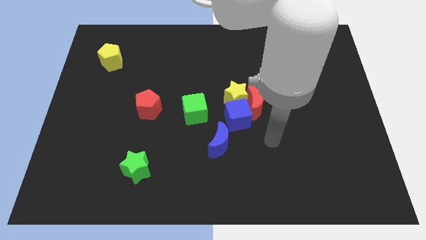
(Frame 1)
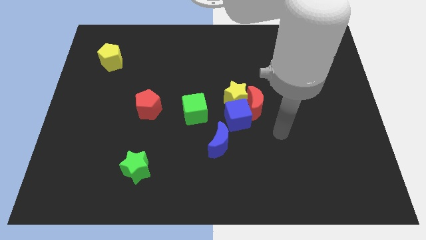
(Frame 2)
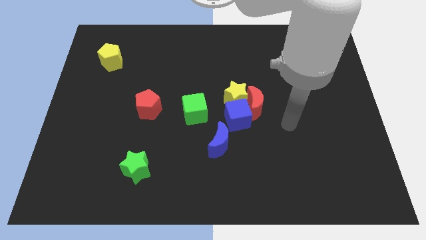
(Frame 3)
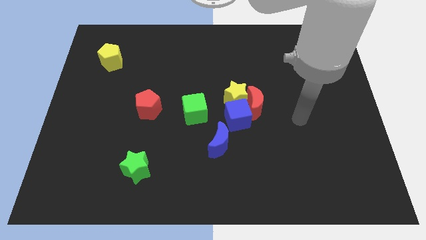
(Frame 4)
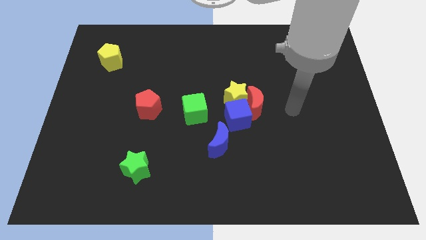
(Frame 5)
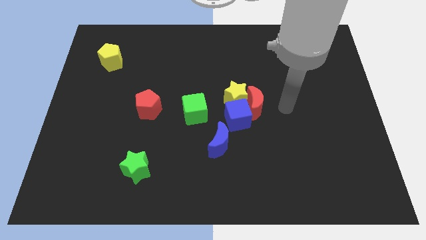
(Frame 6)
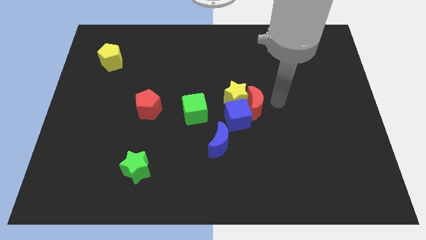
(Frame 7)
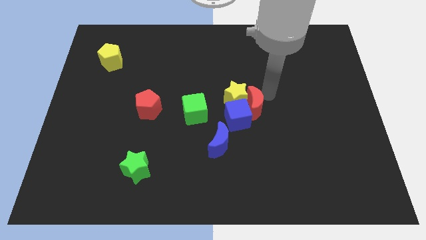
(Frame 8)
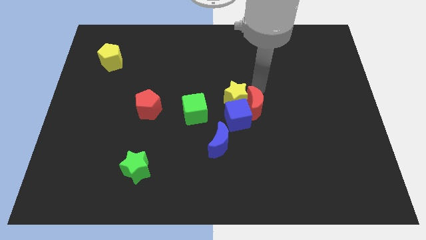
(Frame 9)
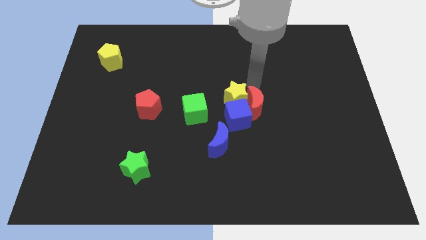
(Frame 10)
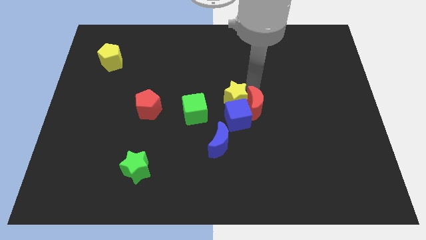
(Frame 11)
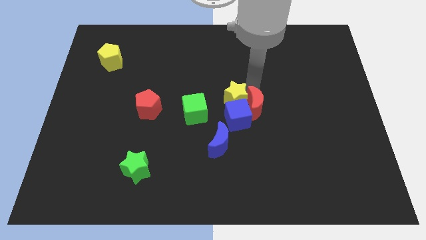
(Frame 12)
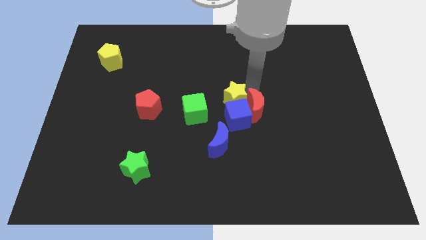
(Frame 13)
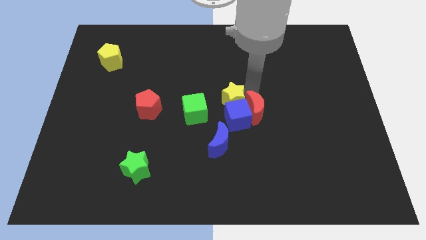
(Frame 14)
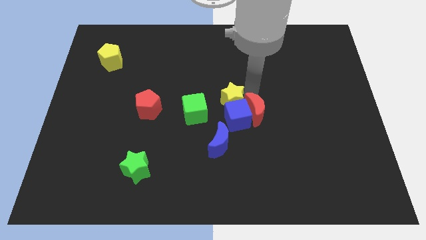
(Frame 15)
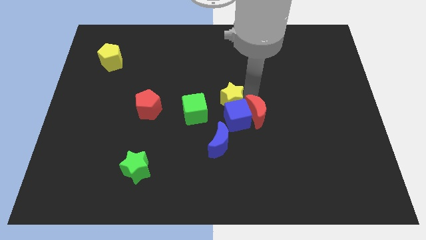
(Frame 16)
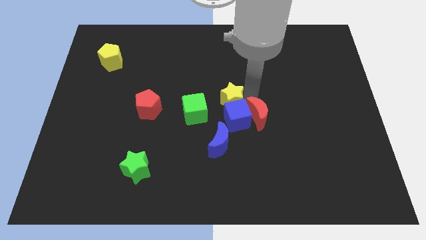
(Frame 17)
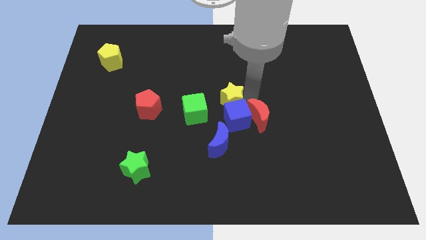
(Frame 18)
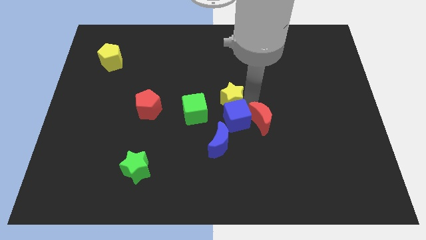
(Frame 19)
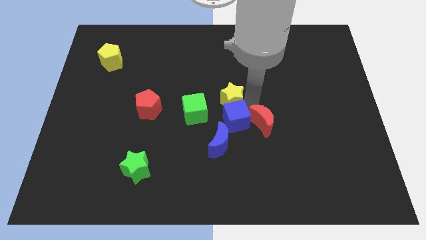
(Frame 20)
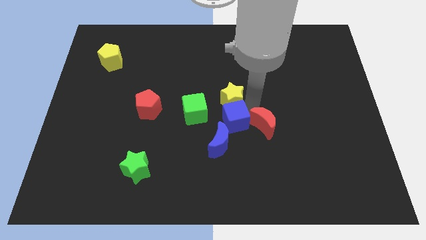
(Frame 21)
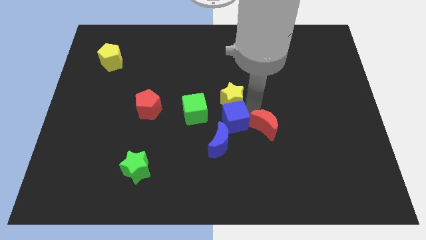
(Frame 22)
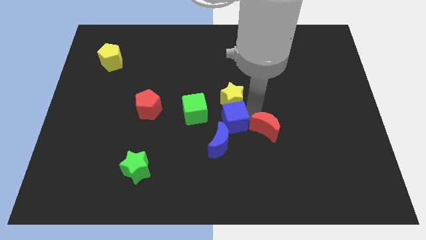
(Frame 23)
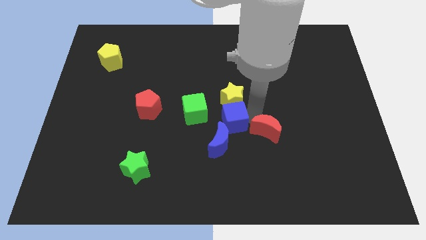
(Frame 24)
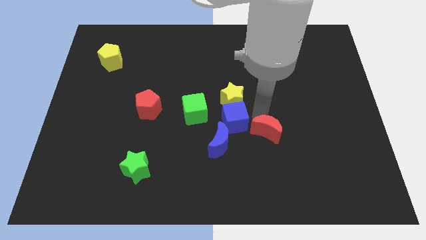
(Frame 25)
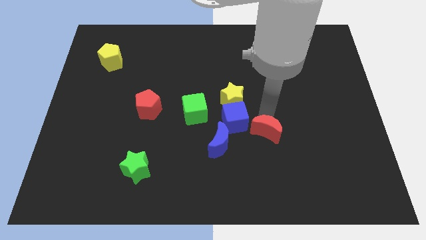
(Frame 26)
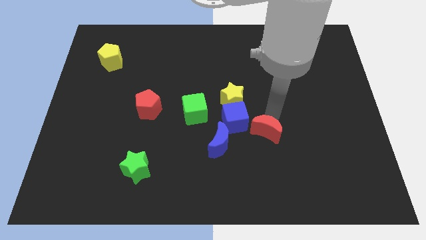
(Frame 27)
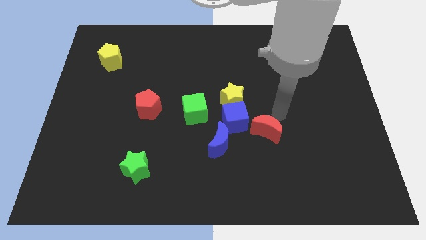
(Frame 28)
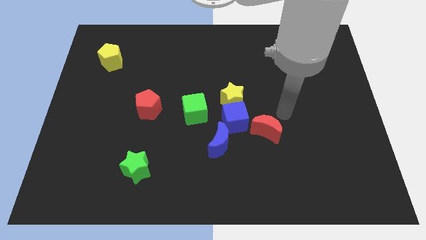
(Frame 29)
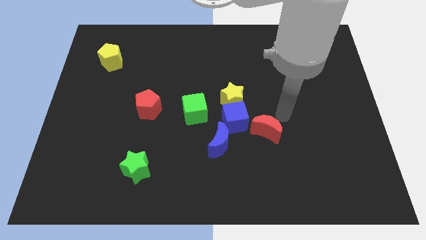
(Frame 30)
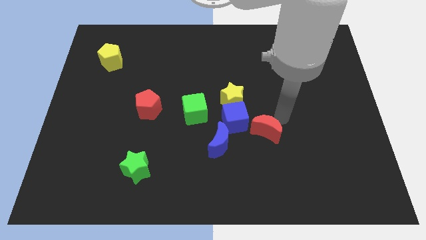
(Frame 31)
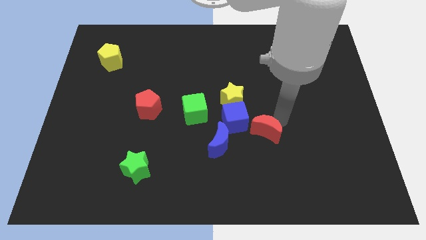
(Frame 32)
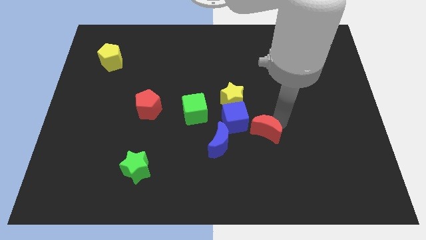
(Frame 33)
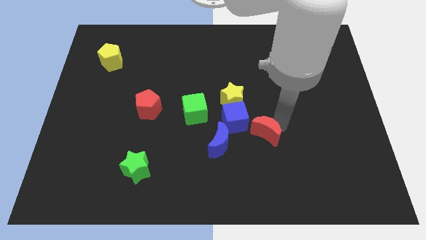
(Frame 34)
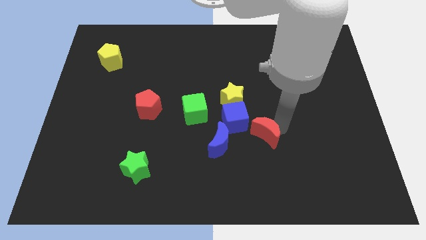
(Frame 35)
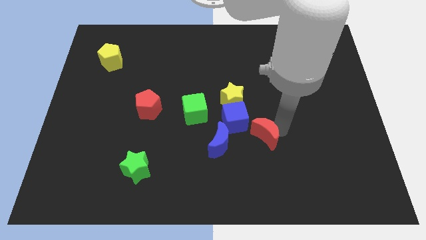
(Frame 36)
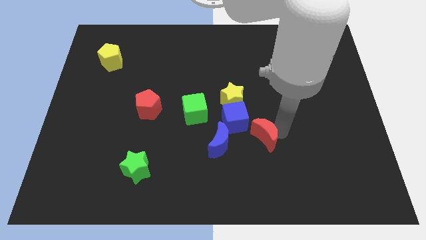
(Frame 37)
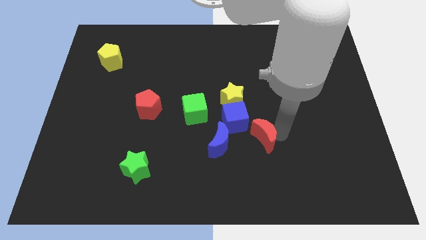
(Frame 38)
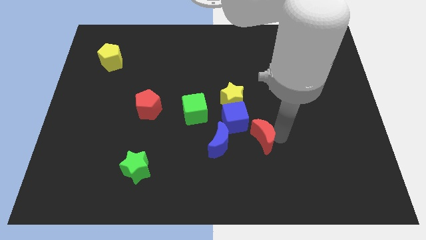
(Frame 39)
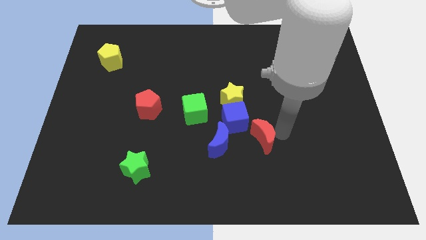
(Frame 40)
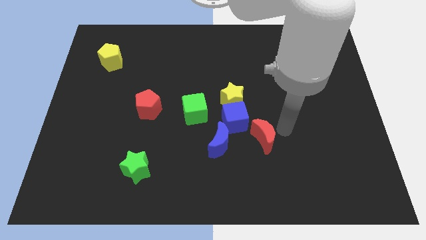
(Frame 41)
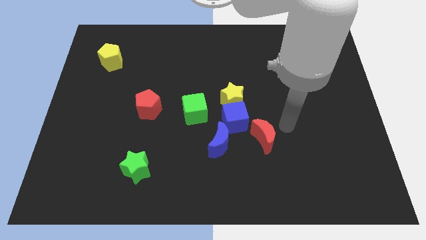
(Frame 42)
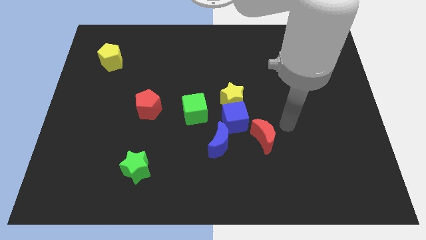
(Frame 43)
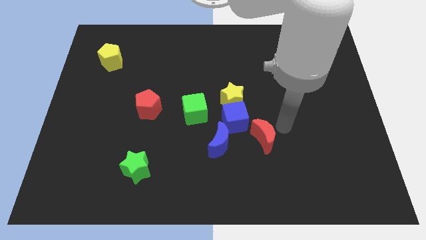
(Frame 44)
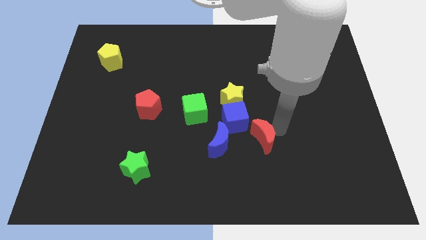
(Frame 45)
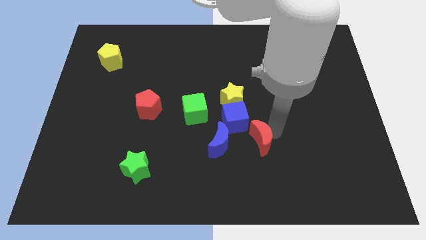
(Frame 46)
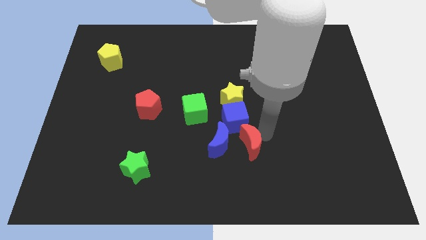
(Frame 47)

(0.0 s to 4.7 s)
slide the red moon diagonally down and to the left a bit

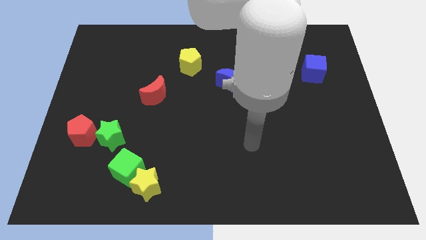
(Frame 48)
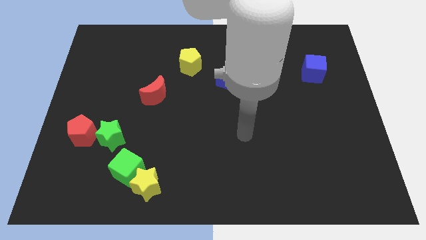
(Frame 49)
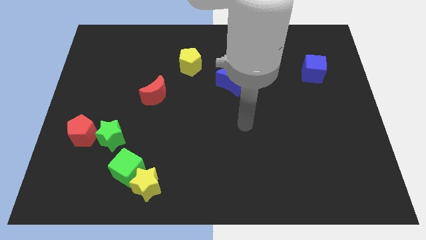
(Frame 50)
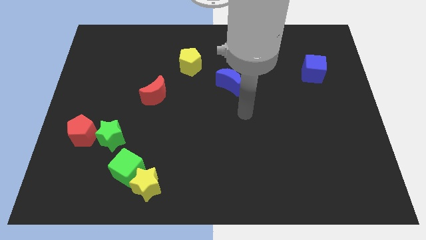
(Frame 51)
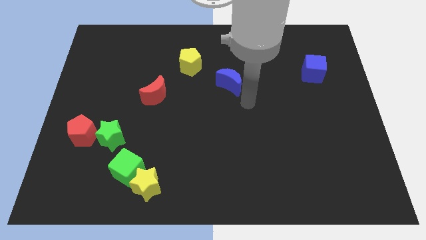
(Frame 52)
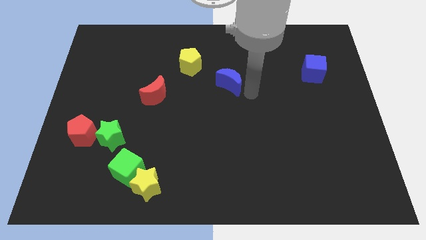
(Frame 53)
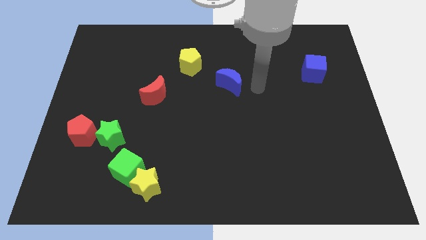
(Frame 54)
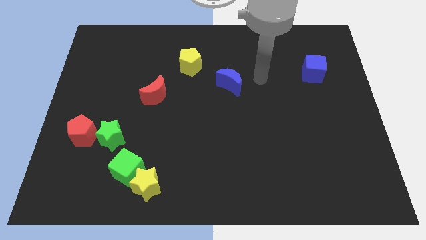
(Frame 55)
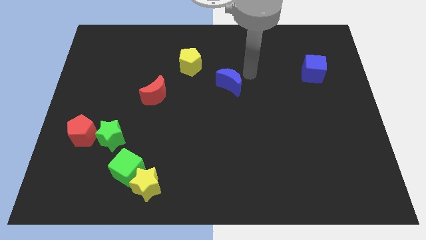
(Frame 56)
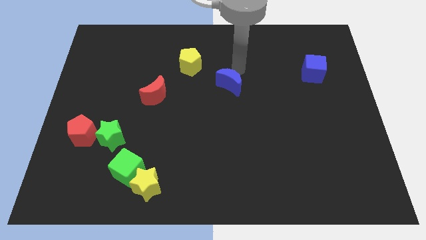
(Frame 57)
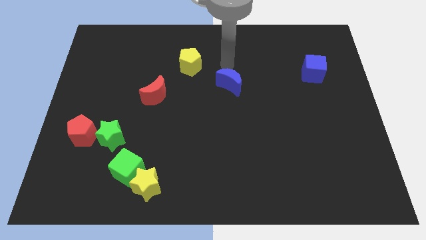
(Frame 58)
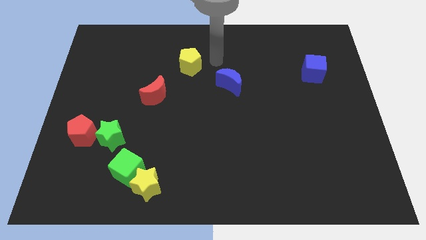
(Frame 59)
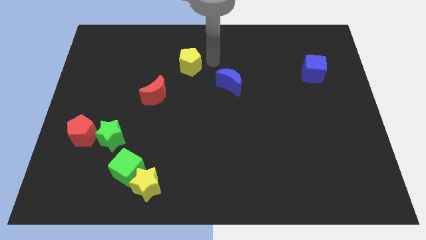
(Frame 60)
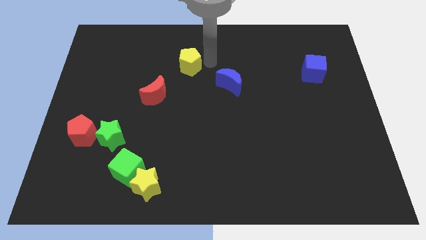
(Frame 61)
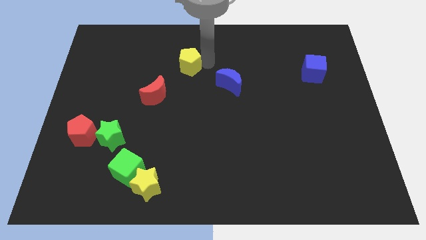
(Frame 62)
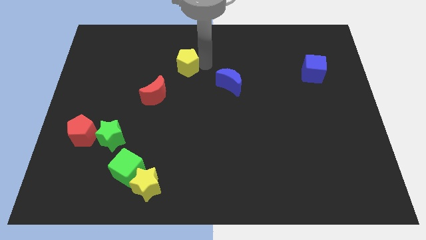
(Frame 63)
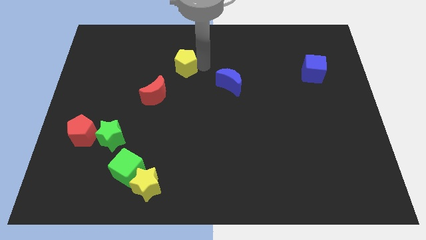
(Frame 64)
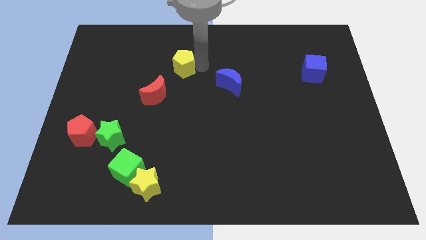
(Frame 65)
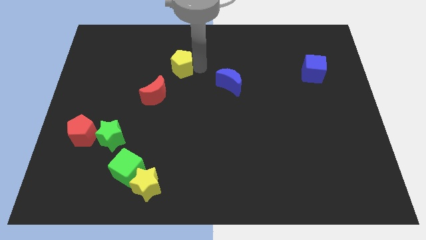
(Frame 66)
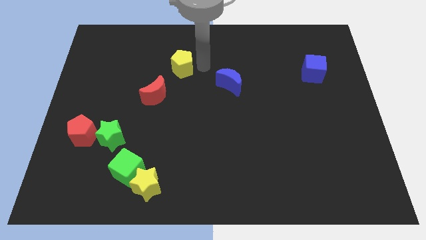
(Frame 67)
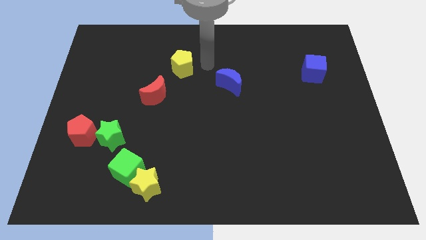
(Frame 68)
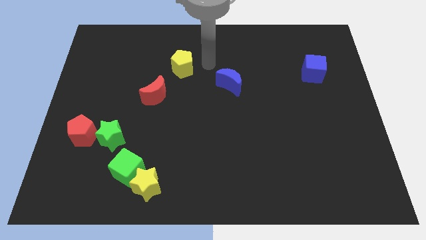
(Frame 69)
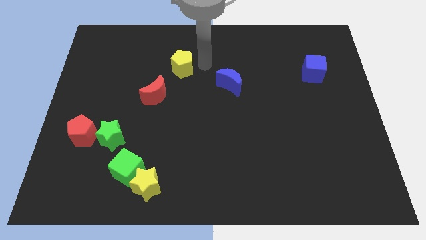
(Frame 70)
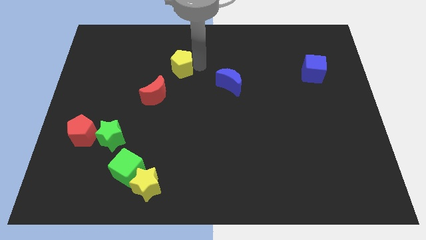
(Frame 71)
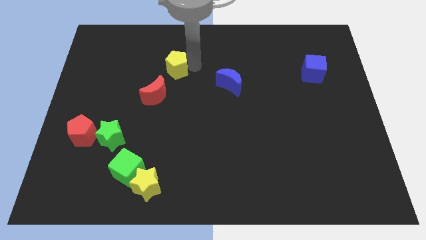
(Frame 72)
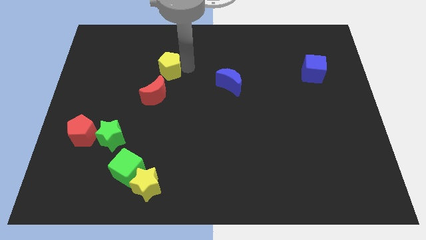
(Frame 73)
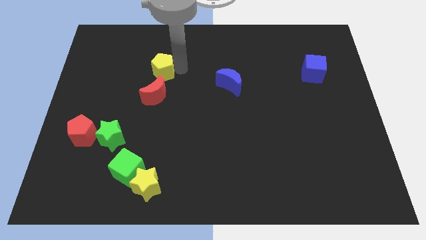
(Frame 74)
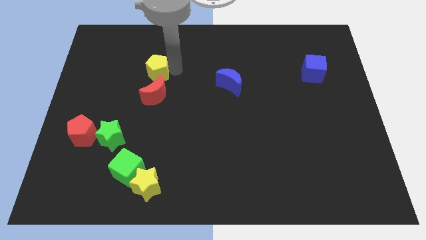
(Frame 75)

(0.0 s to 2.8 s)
move the yellow pentagon a bit left

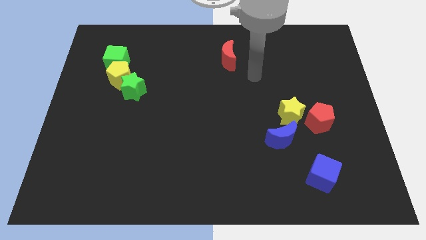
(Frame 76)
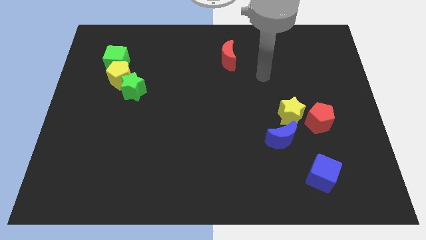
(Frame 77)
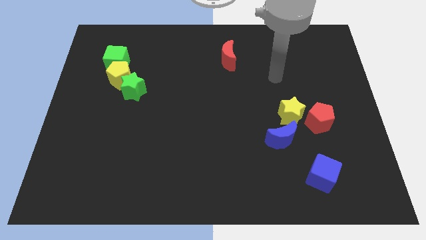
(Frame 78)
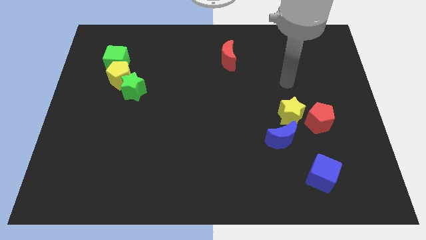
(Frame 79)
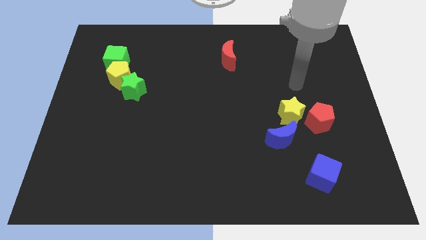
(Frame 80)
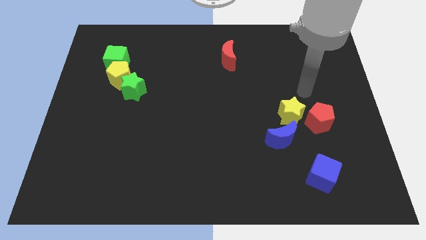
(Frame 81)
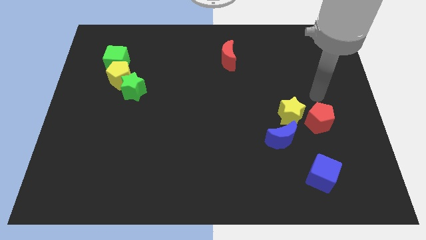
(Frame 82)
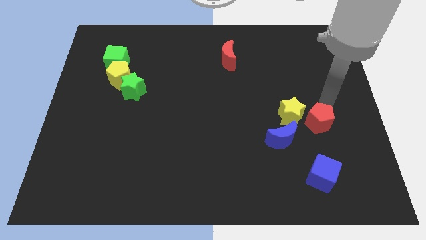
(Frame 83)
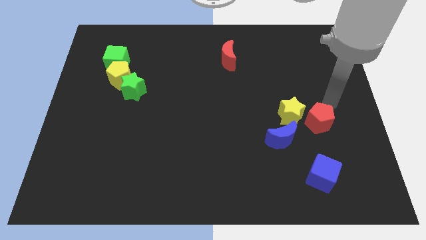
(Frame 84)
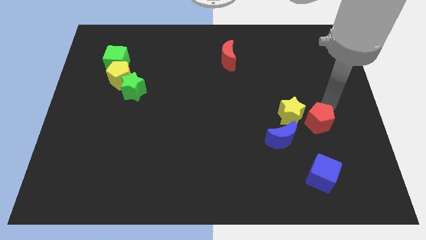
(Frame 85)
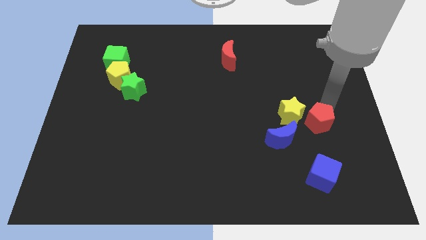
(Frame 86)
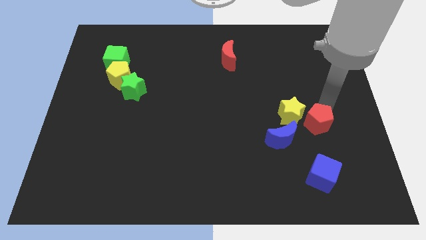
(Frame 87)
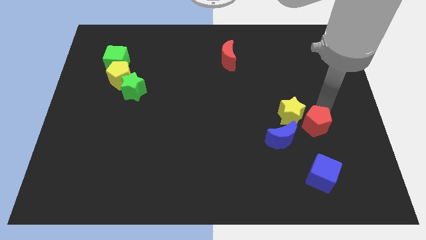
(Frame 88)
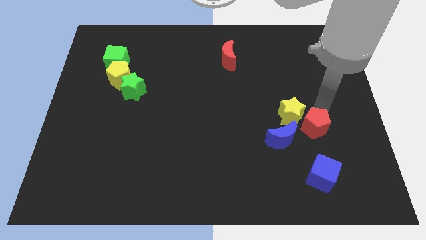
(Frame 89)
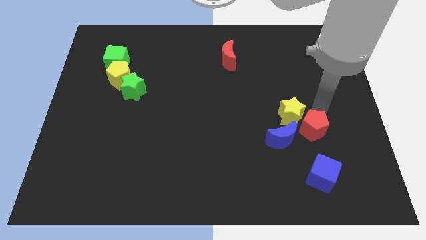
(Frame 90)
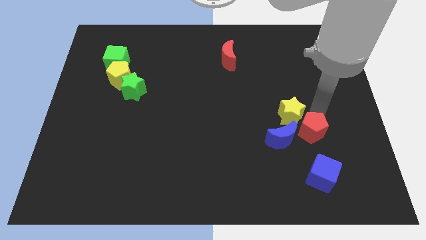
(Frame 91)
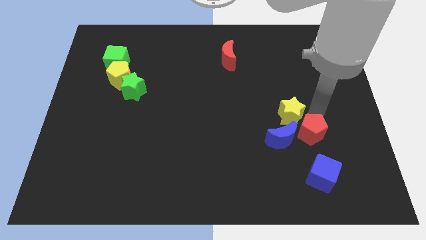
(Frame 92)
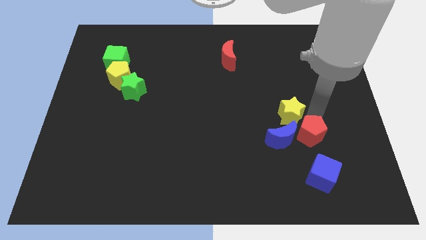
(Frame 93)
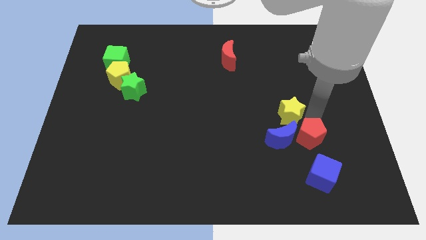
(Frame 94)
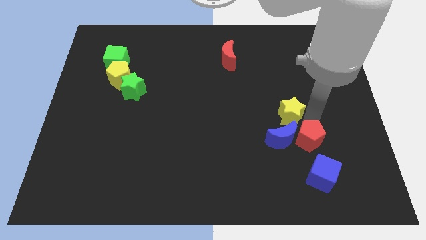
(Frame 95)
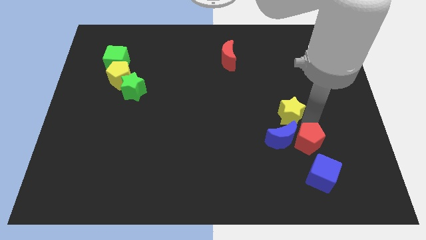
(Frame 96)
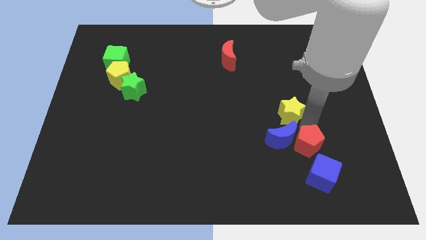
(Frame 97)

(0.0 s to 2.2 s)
push the red pentagon somewhat down and to the left
